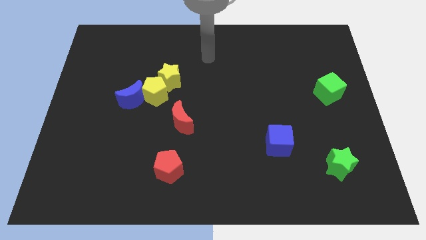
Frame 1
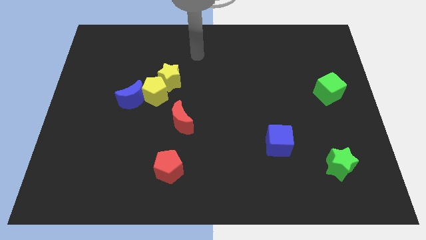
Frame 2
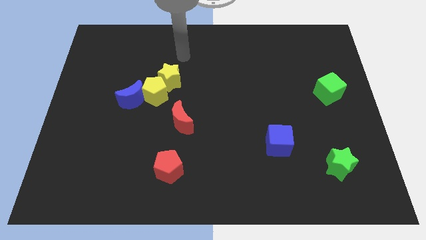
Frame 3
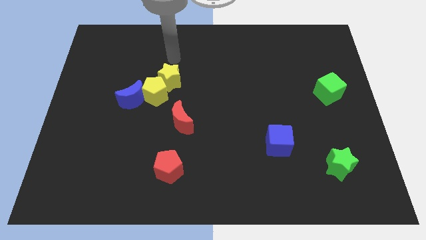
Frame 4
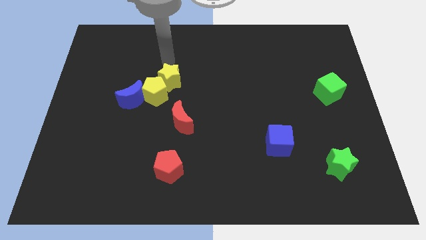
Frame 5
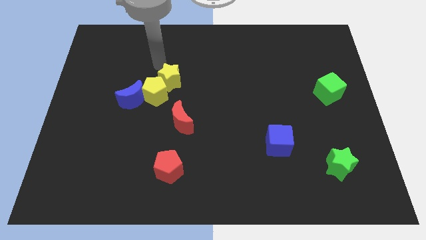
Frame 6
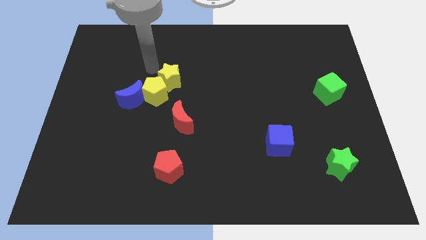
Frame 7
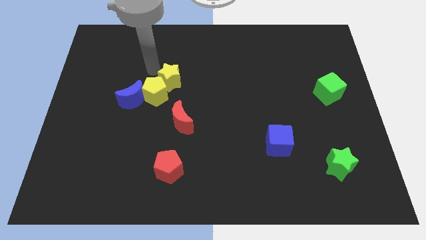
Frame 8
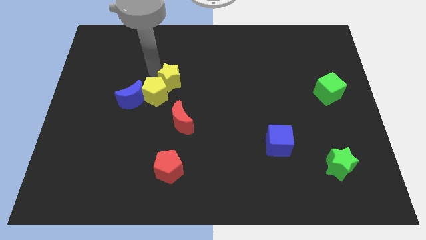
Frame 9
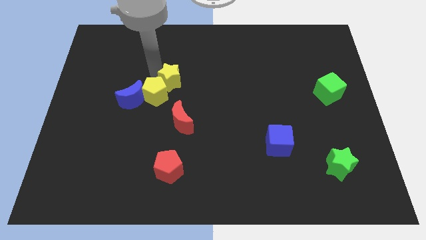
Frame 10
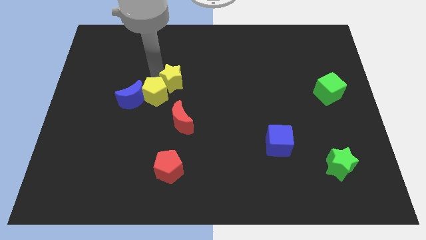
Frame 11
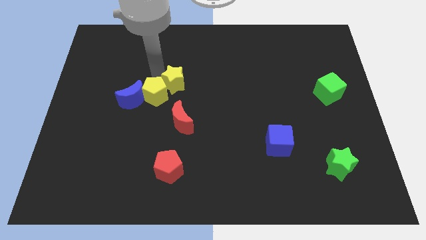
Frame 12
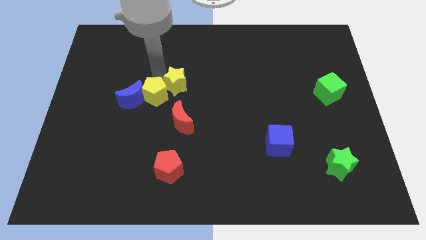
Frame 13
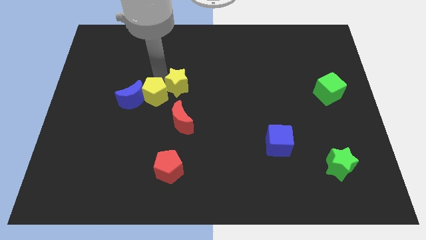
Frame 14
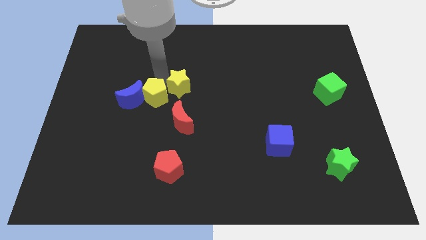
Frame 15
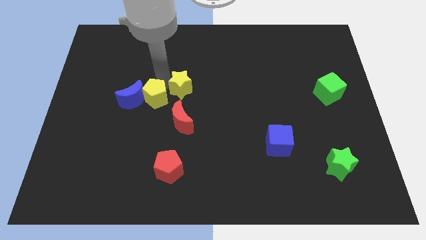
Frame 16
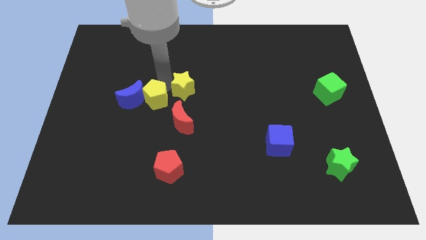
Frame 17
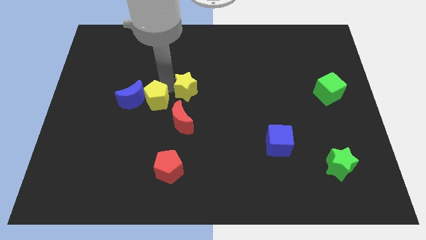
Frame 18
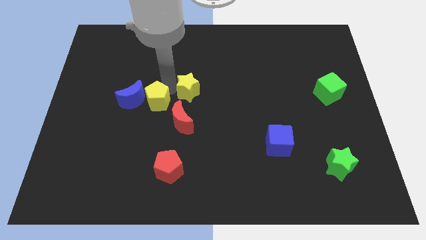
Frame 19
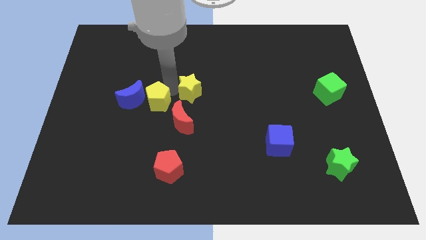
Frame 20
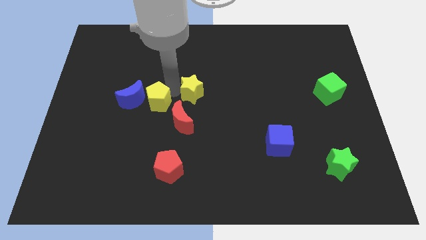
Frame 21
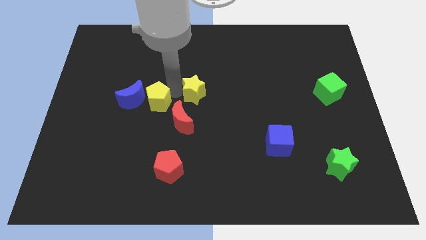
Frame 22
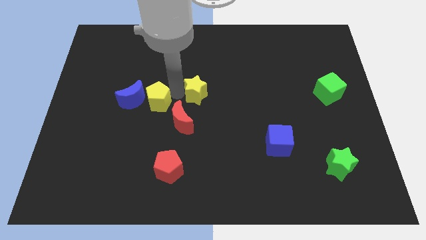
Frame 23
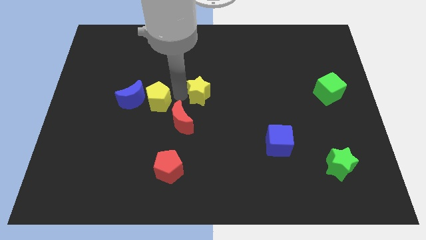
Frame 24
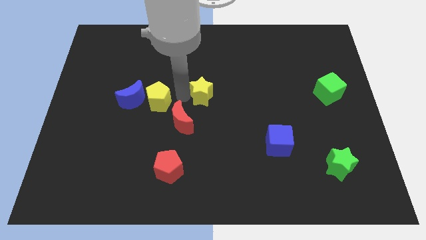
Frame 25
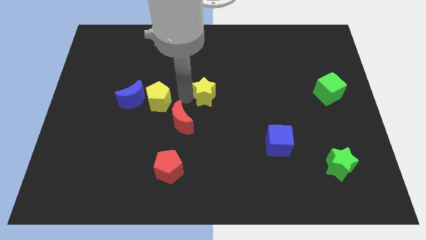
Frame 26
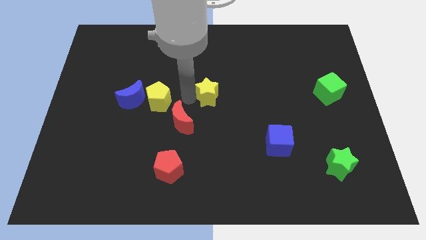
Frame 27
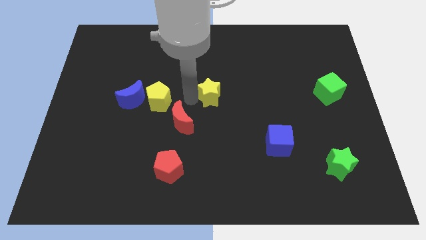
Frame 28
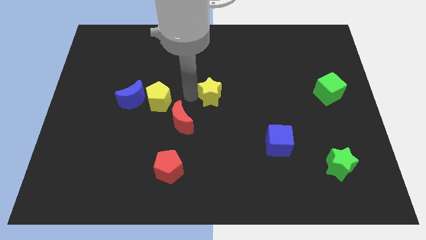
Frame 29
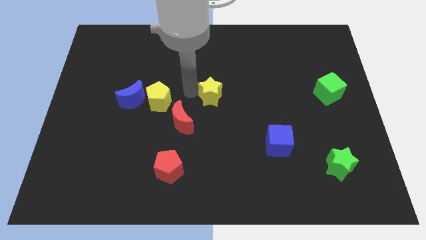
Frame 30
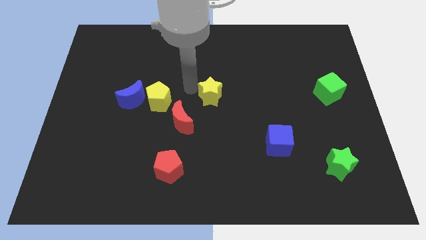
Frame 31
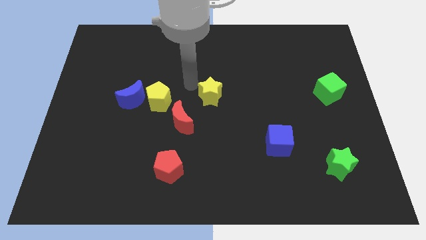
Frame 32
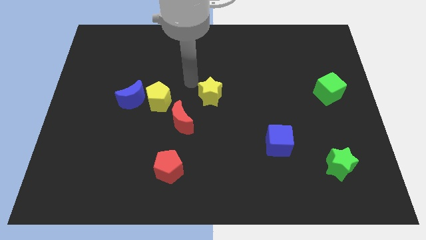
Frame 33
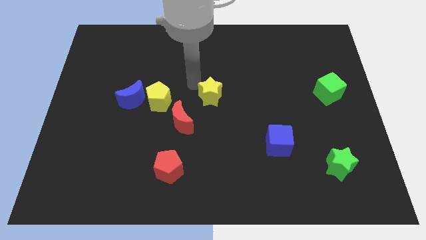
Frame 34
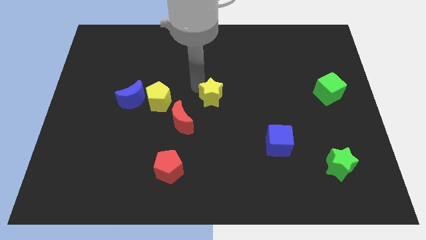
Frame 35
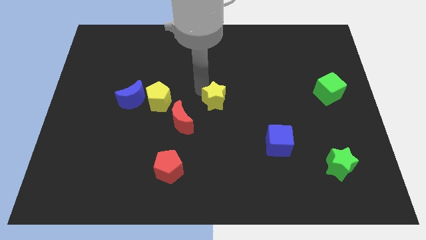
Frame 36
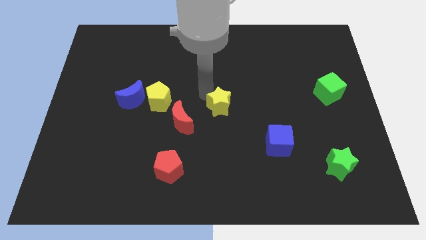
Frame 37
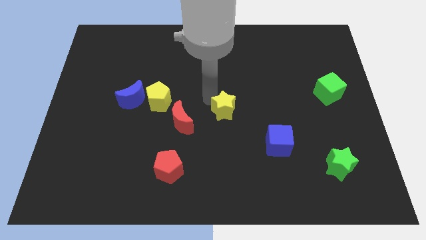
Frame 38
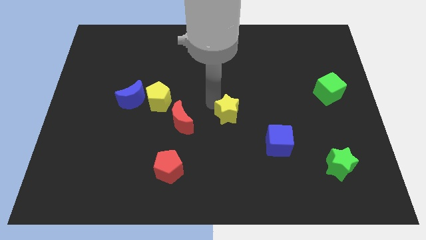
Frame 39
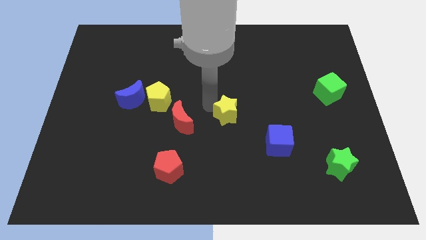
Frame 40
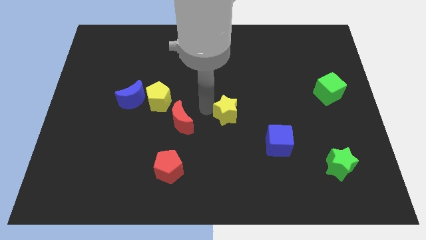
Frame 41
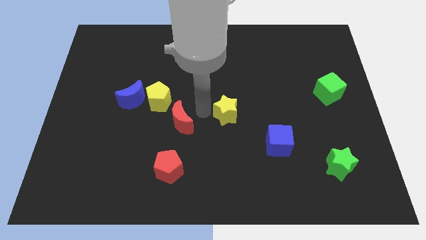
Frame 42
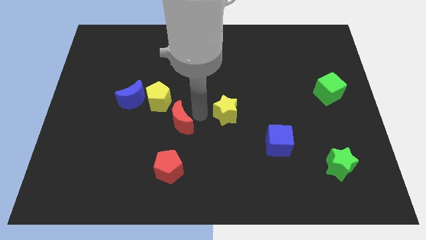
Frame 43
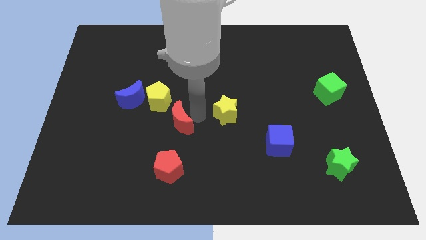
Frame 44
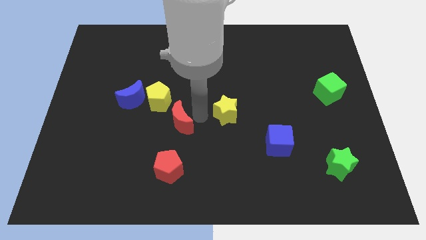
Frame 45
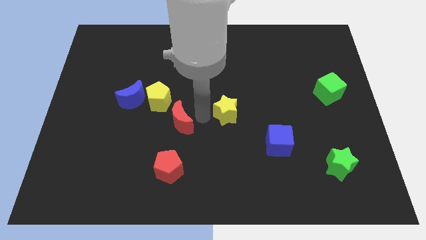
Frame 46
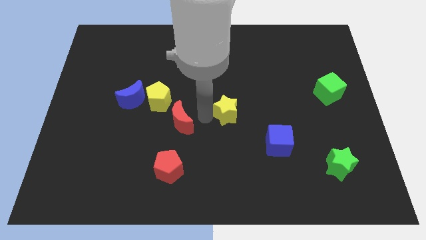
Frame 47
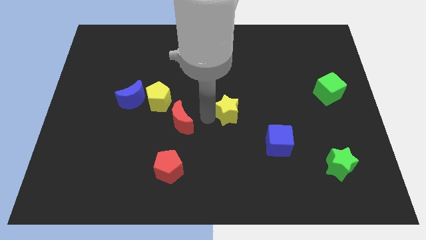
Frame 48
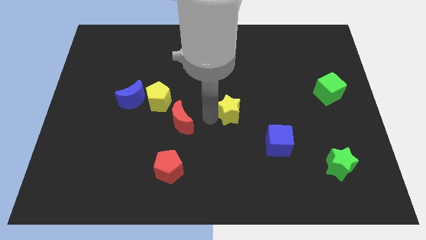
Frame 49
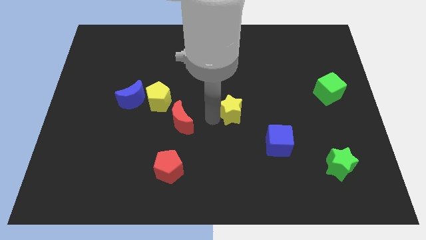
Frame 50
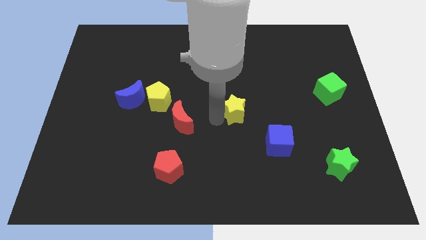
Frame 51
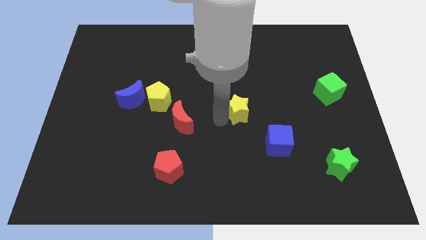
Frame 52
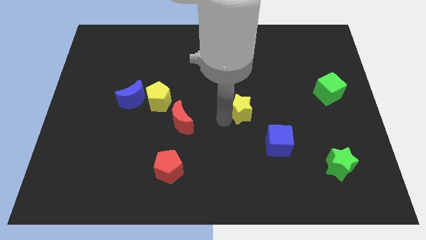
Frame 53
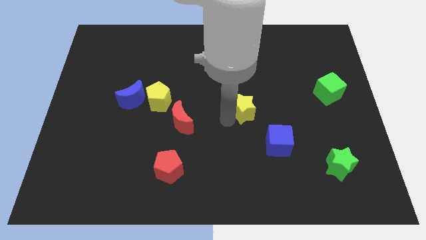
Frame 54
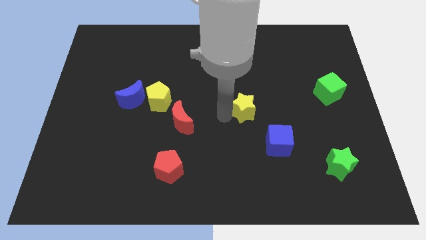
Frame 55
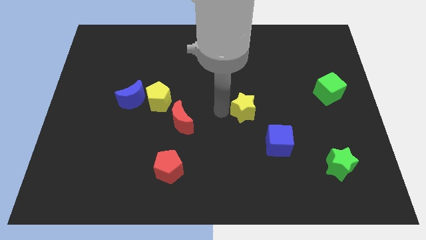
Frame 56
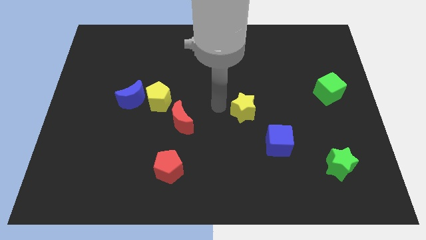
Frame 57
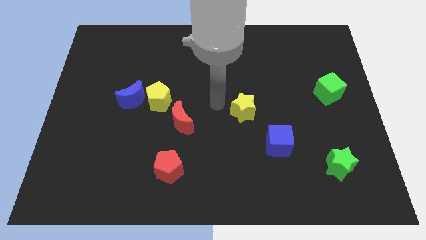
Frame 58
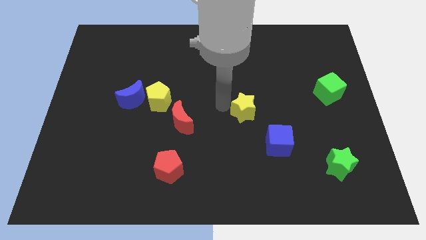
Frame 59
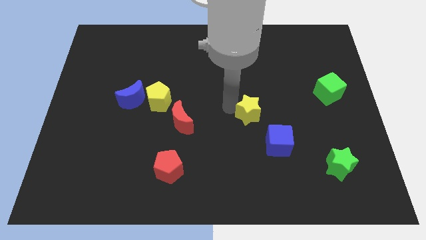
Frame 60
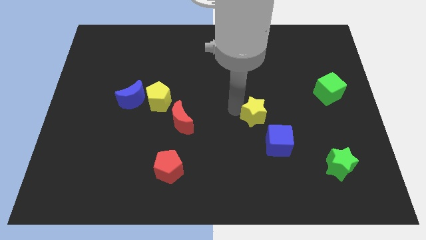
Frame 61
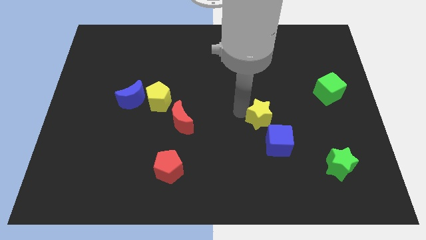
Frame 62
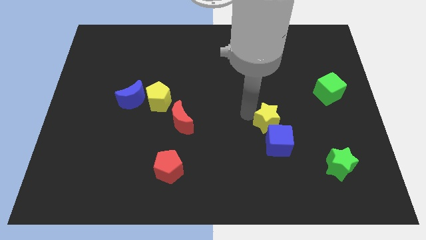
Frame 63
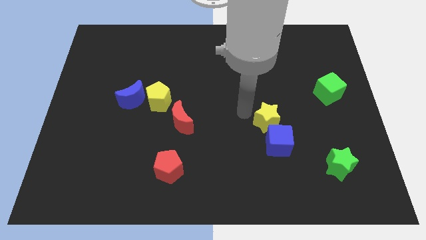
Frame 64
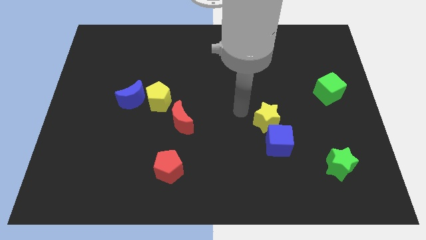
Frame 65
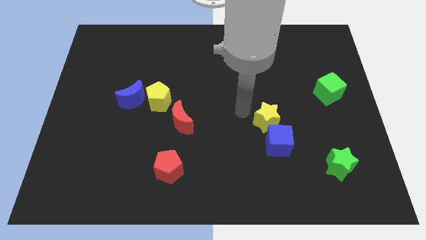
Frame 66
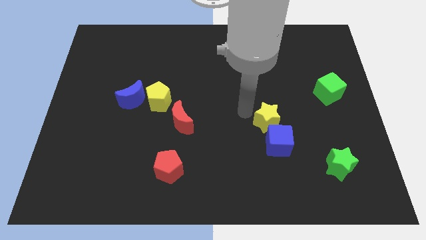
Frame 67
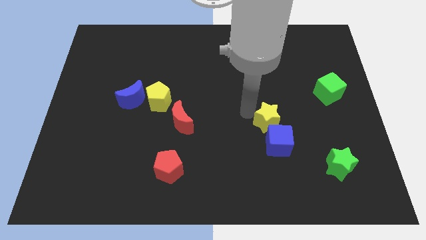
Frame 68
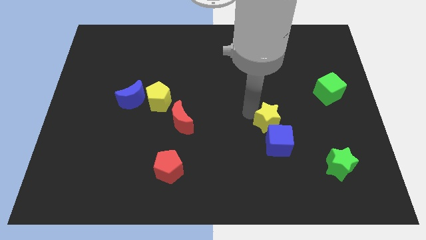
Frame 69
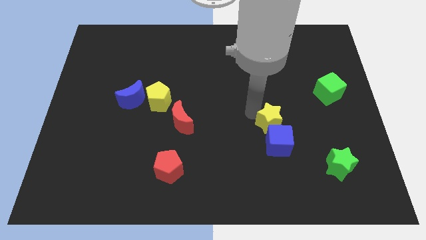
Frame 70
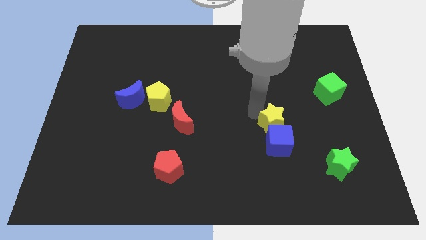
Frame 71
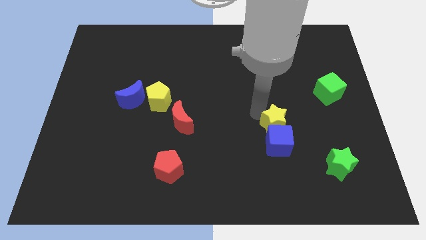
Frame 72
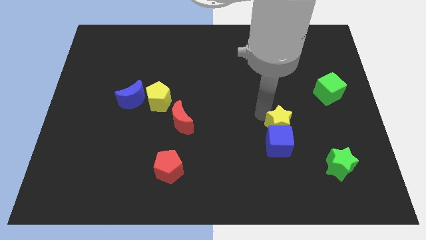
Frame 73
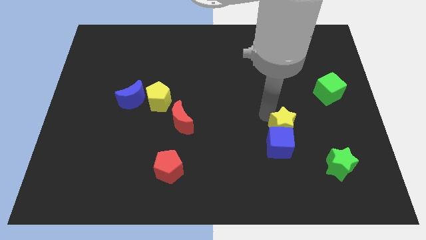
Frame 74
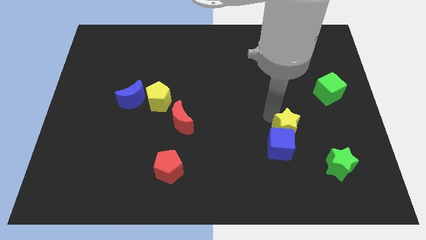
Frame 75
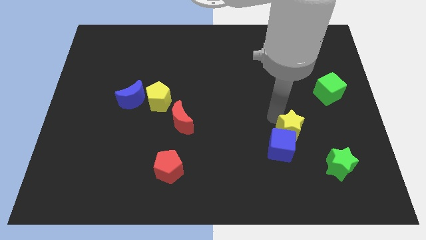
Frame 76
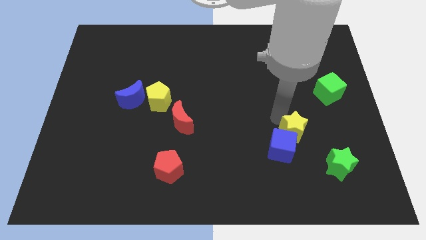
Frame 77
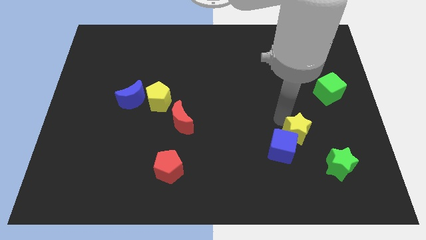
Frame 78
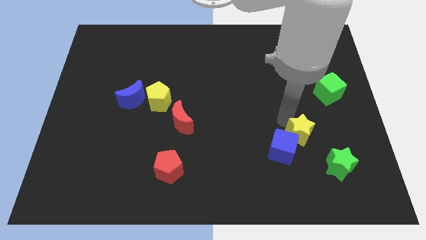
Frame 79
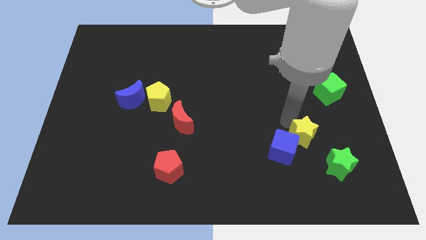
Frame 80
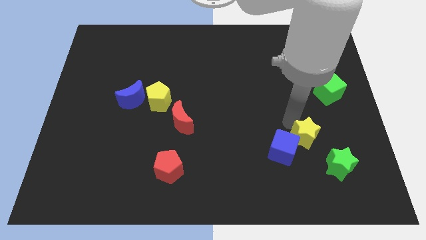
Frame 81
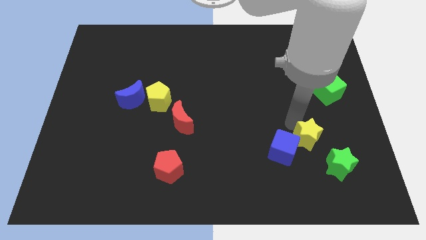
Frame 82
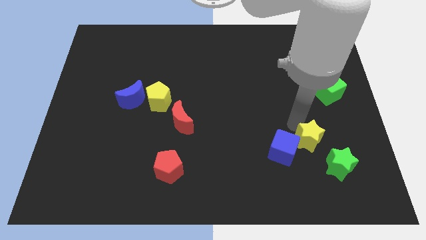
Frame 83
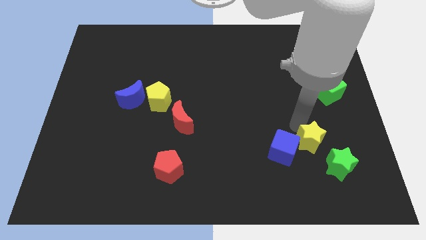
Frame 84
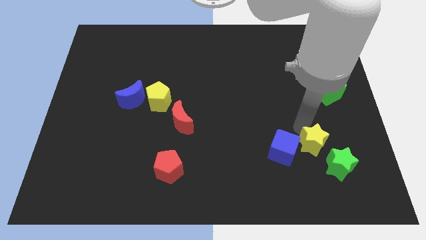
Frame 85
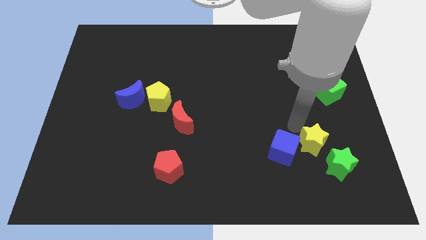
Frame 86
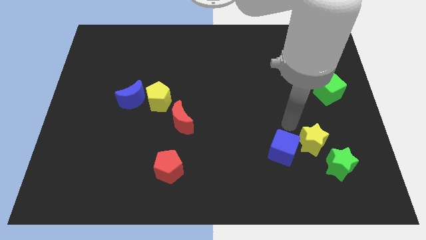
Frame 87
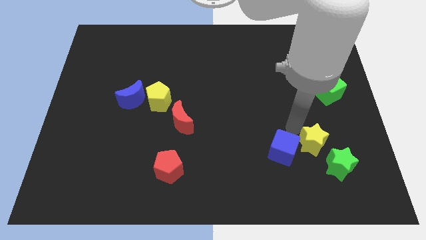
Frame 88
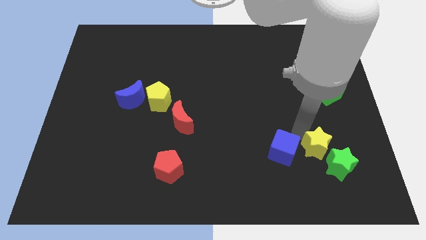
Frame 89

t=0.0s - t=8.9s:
move the yellow star close to the green star
